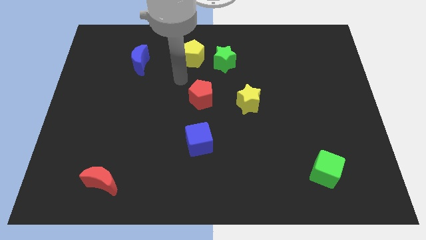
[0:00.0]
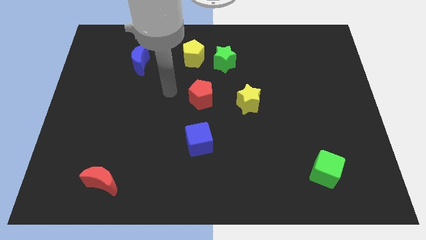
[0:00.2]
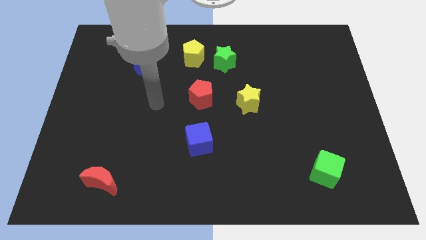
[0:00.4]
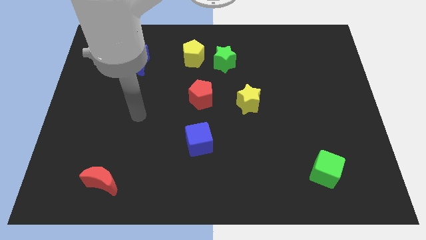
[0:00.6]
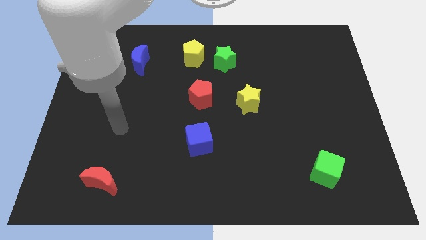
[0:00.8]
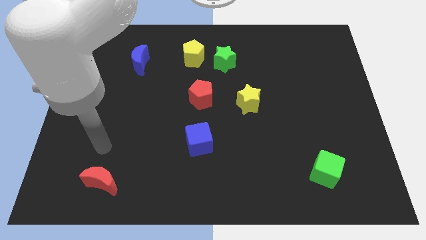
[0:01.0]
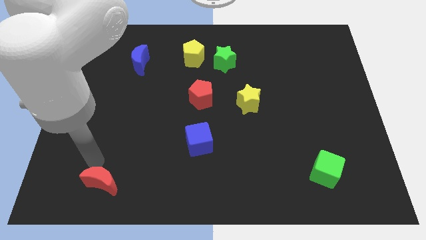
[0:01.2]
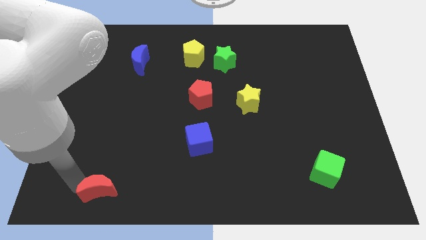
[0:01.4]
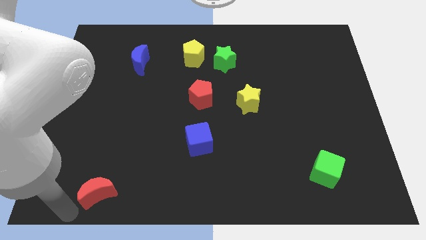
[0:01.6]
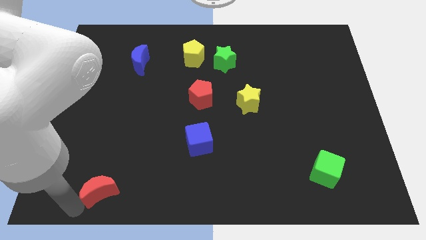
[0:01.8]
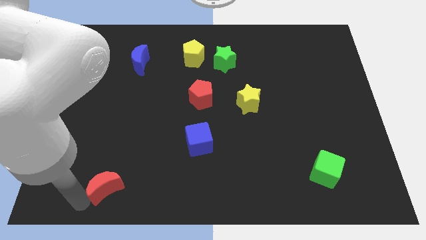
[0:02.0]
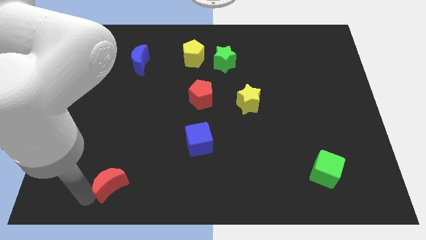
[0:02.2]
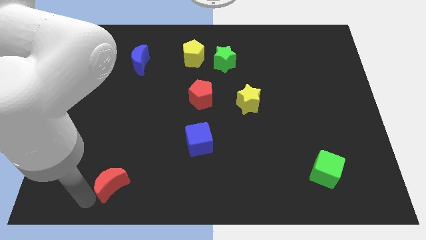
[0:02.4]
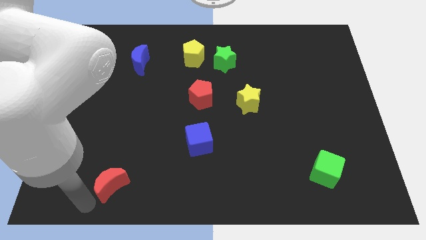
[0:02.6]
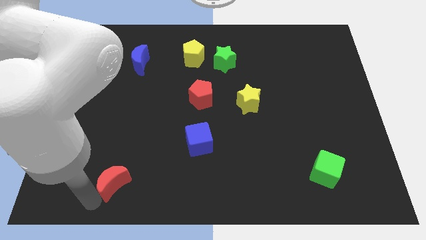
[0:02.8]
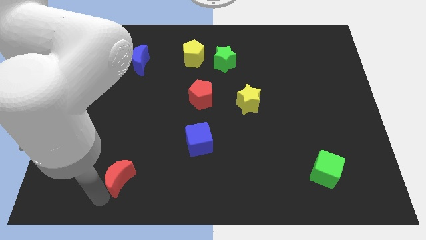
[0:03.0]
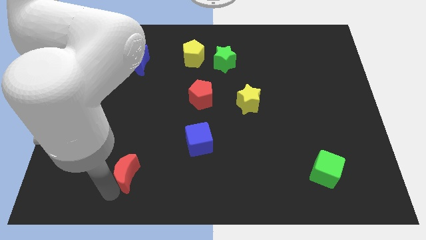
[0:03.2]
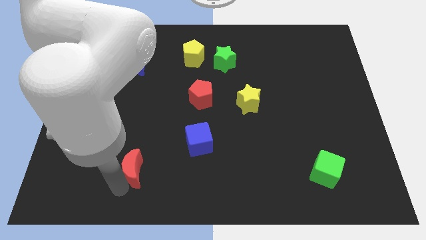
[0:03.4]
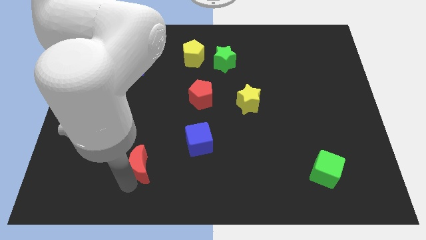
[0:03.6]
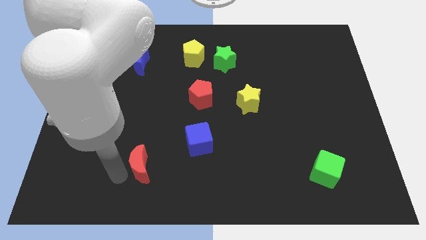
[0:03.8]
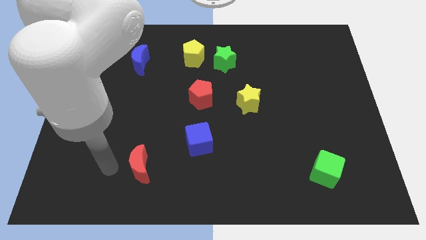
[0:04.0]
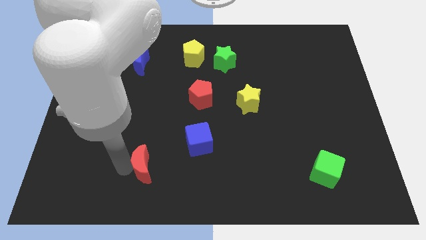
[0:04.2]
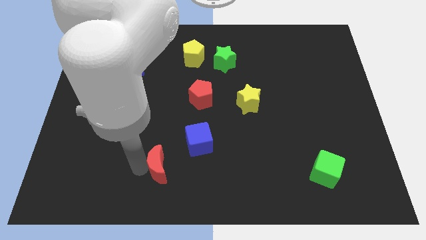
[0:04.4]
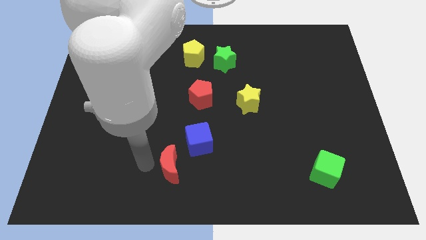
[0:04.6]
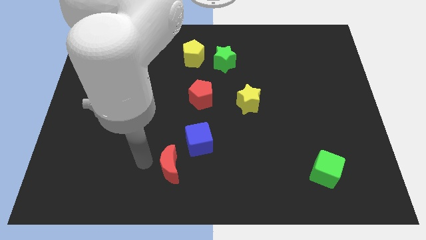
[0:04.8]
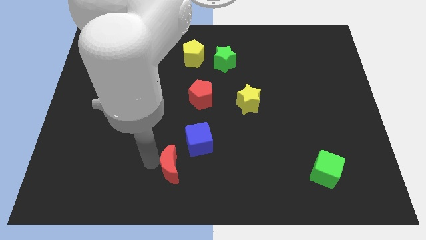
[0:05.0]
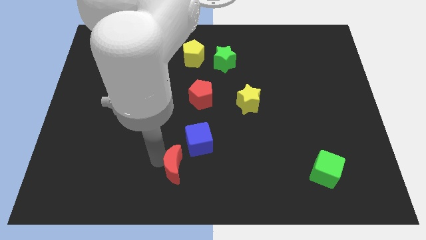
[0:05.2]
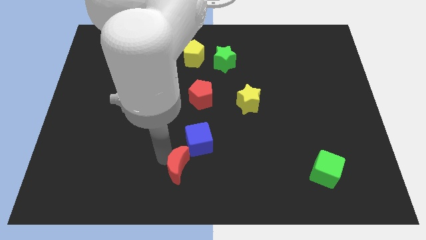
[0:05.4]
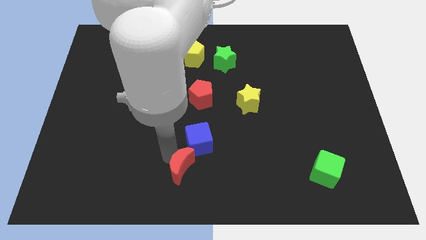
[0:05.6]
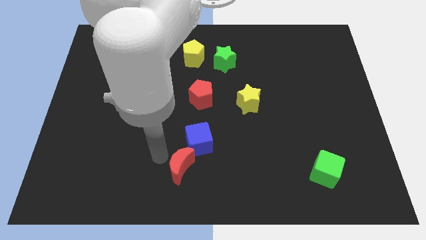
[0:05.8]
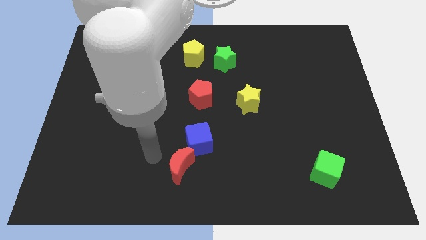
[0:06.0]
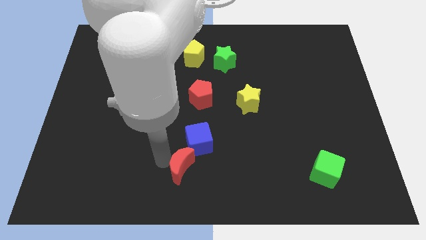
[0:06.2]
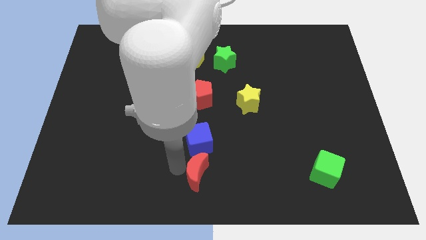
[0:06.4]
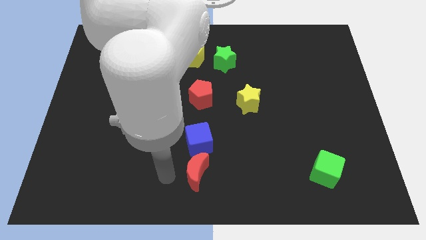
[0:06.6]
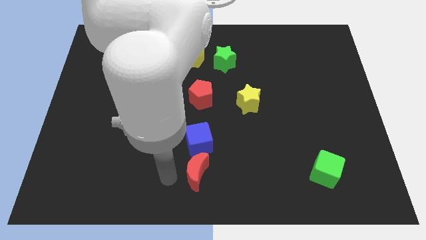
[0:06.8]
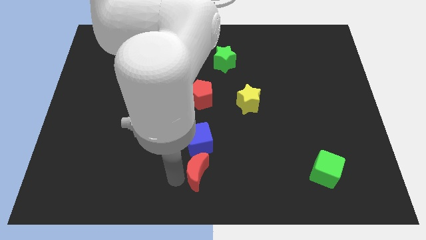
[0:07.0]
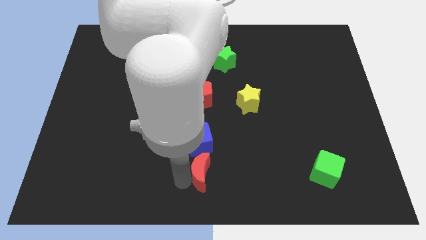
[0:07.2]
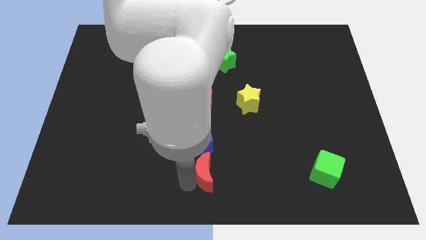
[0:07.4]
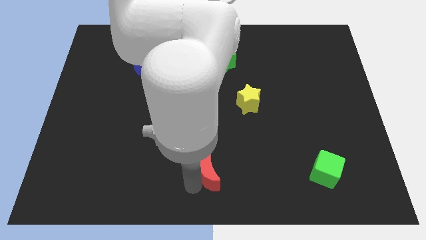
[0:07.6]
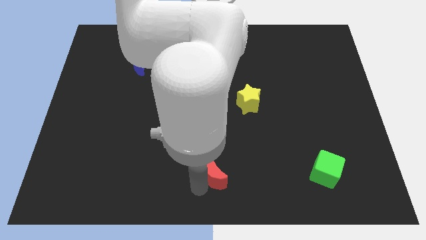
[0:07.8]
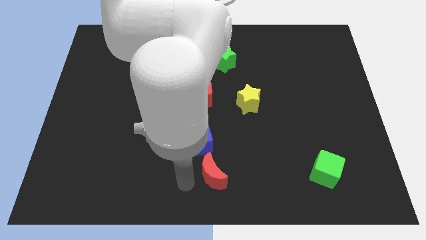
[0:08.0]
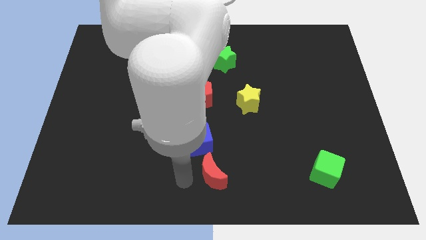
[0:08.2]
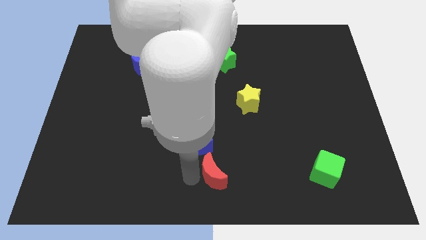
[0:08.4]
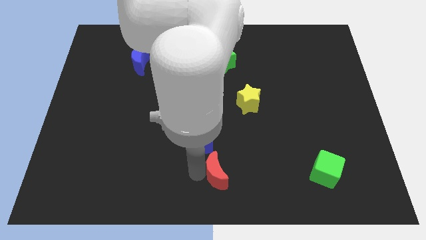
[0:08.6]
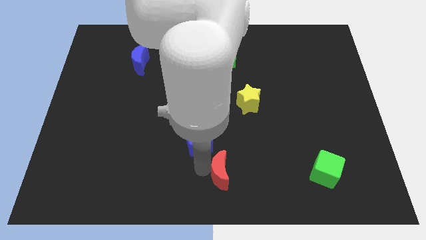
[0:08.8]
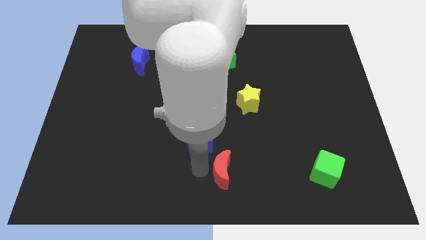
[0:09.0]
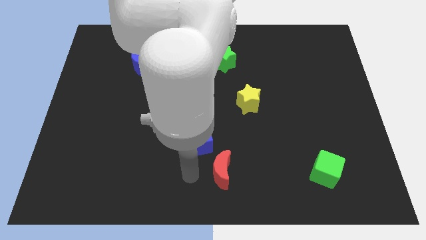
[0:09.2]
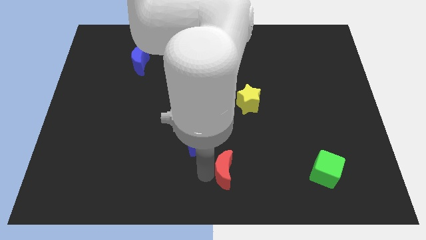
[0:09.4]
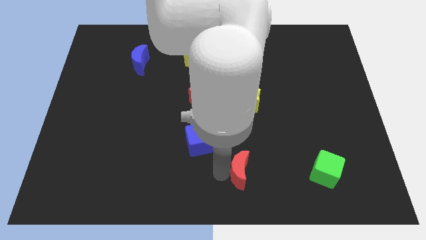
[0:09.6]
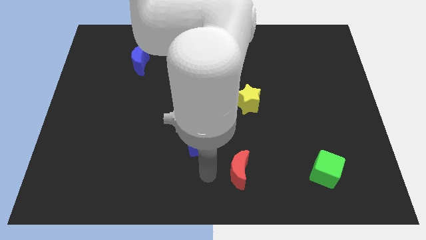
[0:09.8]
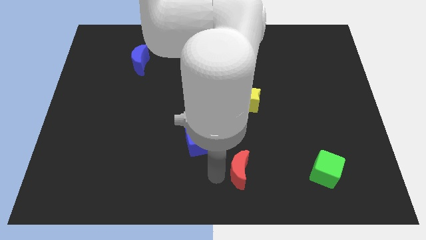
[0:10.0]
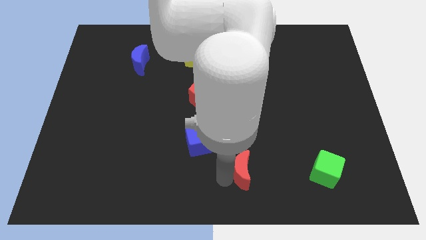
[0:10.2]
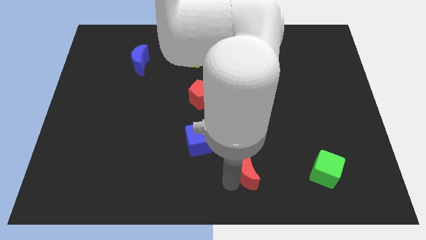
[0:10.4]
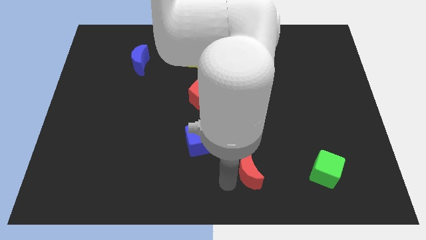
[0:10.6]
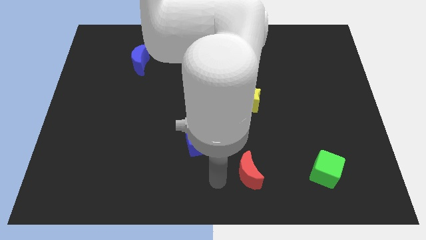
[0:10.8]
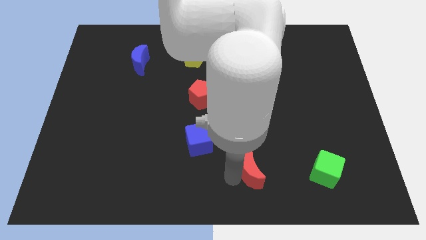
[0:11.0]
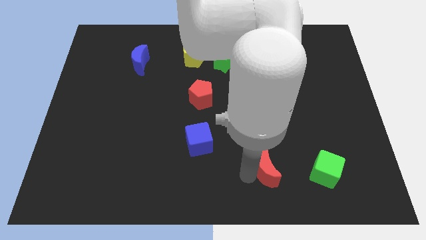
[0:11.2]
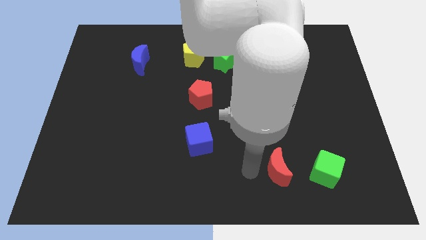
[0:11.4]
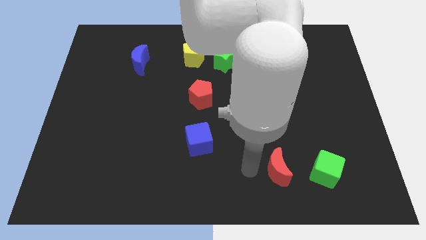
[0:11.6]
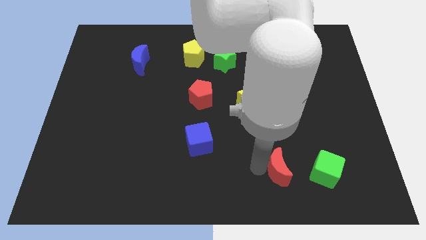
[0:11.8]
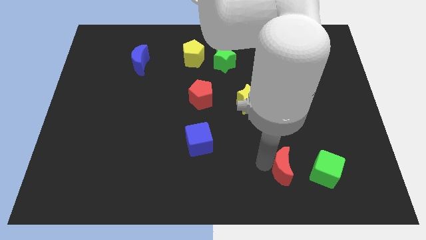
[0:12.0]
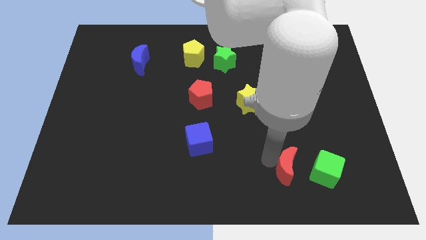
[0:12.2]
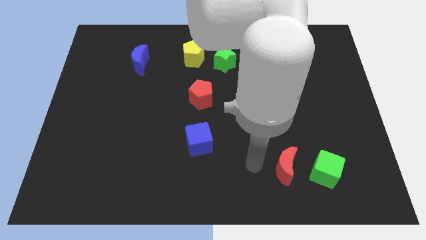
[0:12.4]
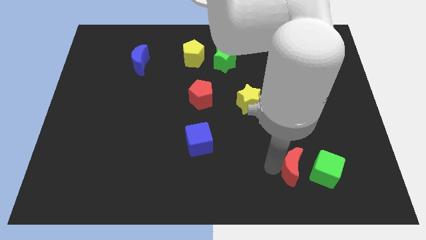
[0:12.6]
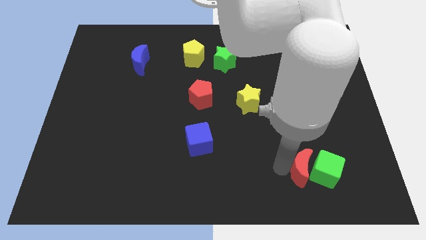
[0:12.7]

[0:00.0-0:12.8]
slide the red moon next to the green cube

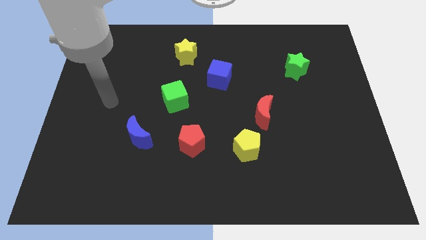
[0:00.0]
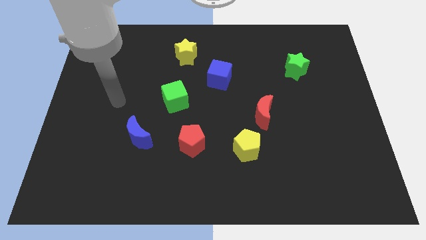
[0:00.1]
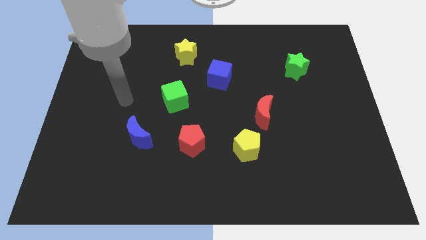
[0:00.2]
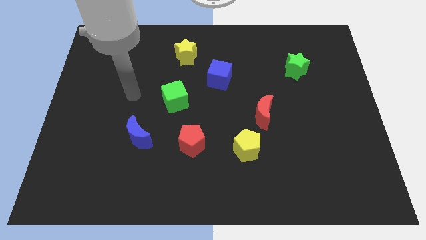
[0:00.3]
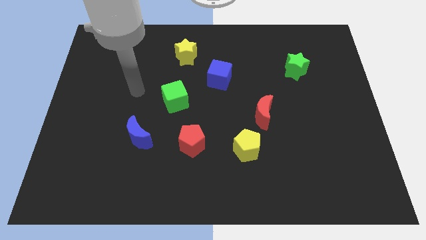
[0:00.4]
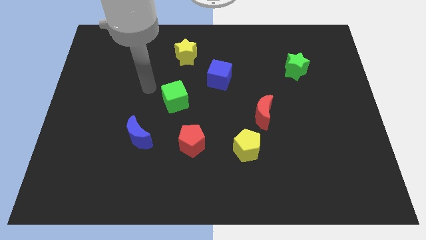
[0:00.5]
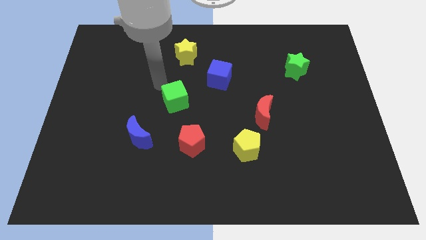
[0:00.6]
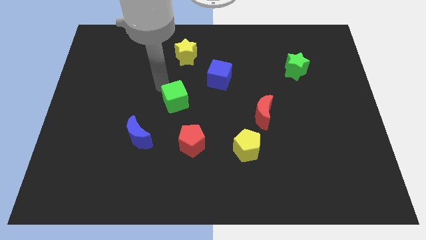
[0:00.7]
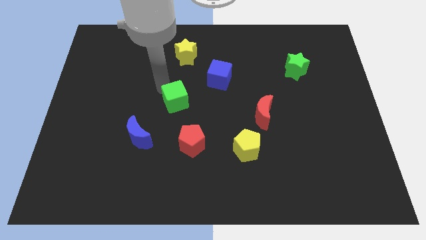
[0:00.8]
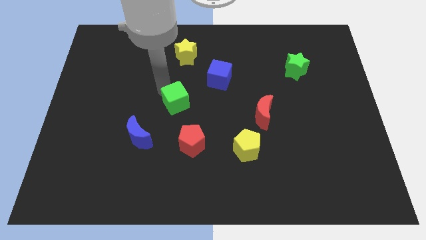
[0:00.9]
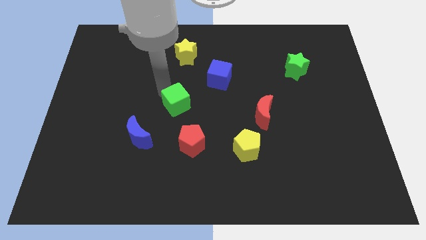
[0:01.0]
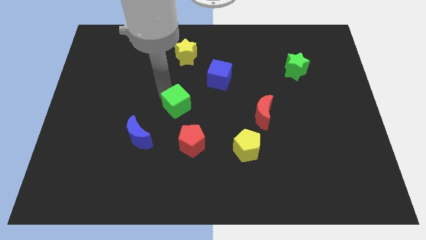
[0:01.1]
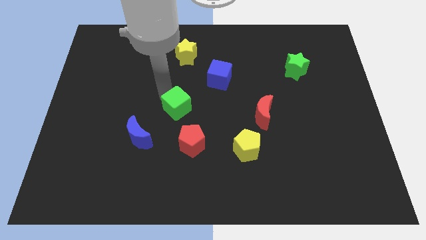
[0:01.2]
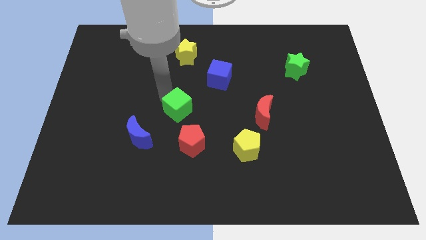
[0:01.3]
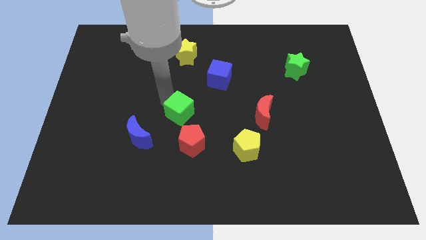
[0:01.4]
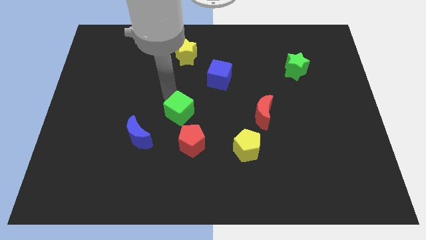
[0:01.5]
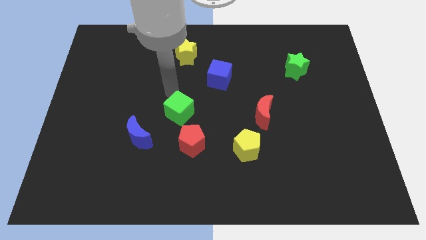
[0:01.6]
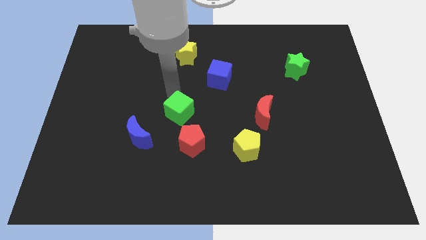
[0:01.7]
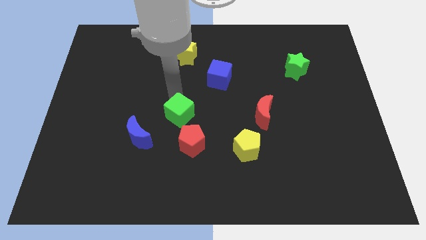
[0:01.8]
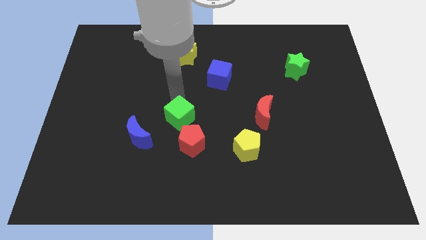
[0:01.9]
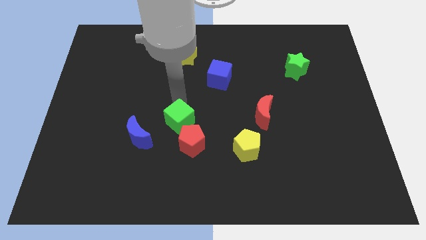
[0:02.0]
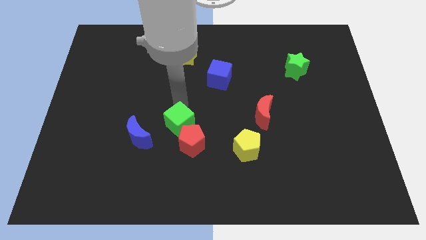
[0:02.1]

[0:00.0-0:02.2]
slide the green cube to the red pentagon
